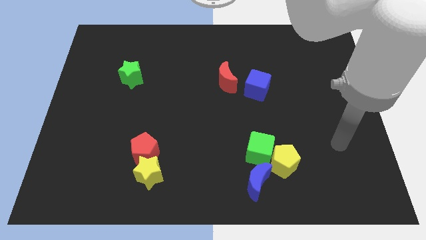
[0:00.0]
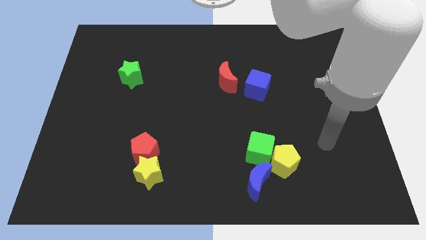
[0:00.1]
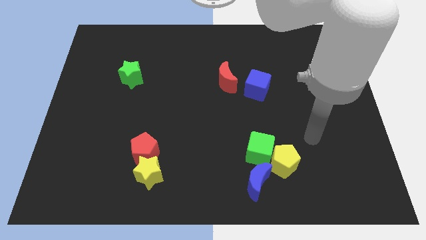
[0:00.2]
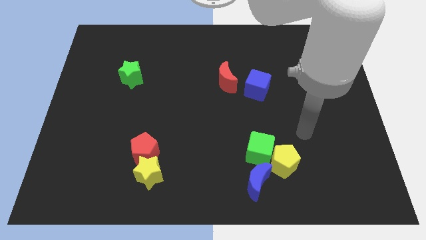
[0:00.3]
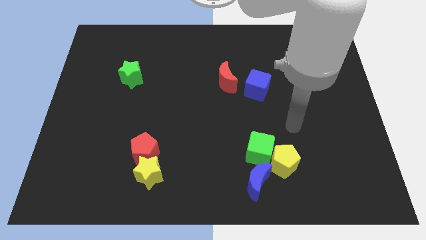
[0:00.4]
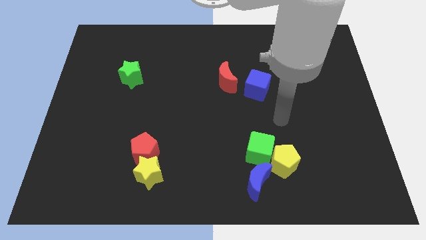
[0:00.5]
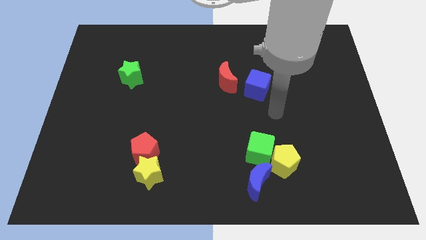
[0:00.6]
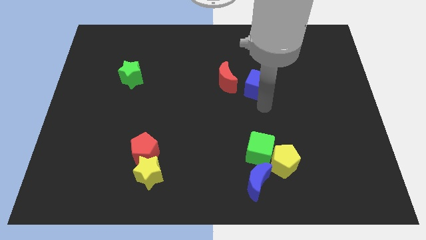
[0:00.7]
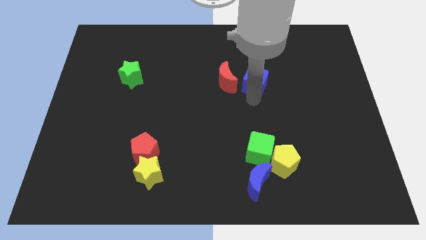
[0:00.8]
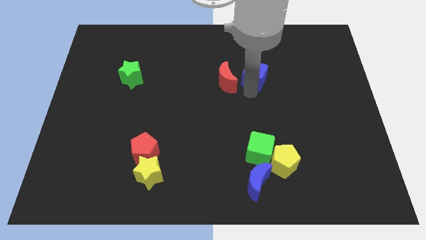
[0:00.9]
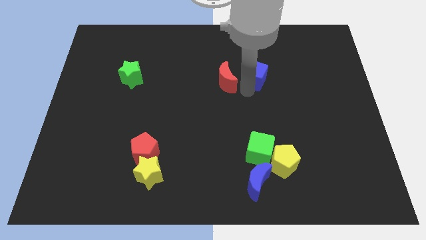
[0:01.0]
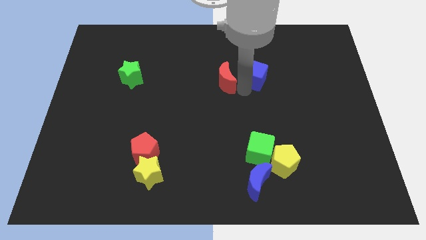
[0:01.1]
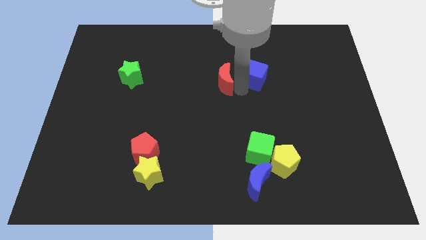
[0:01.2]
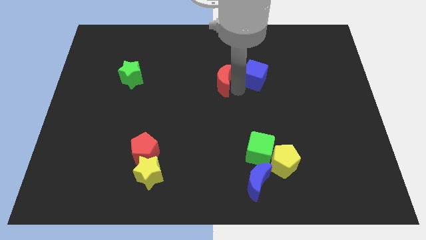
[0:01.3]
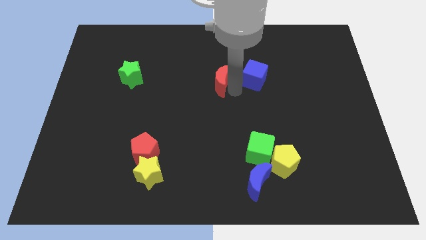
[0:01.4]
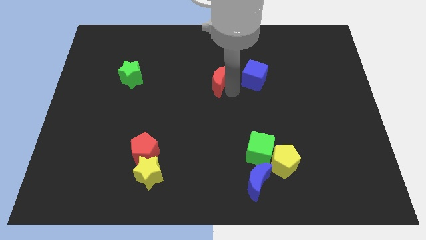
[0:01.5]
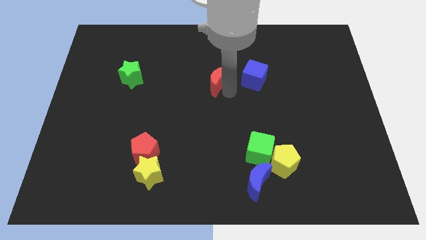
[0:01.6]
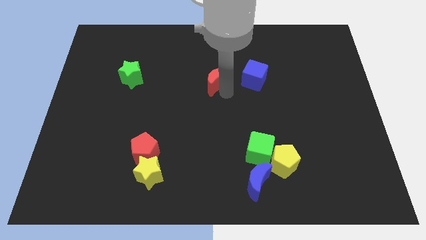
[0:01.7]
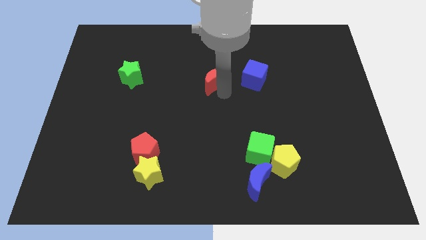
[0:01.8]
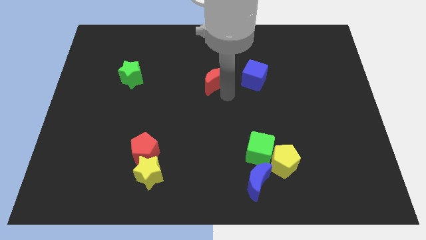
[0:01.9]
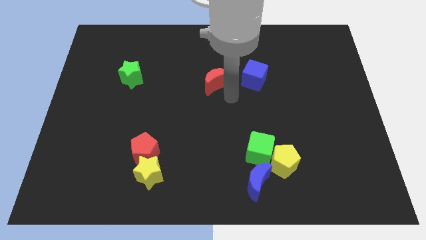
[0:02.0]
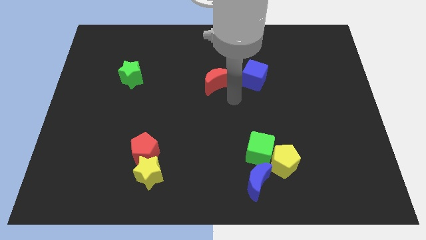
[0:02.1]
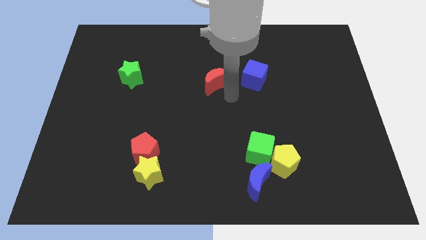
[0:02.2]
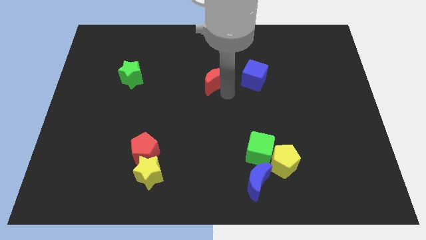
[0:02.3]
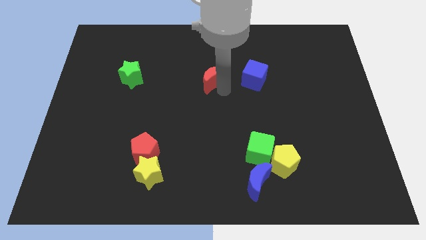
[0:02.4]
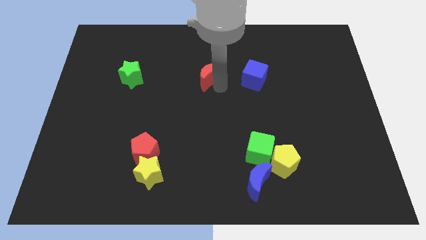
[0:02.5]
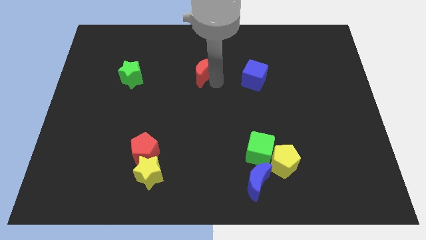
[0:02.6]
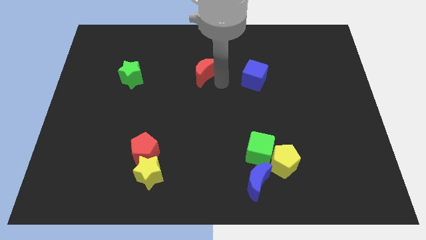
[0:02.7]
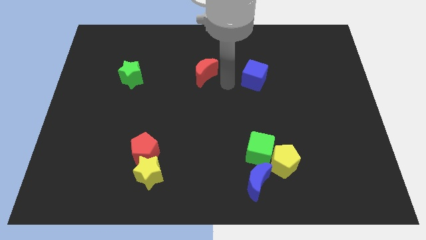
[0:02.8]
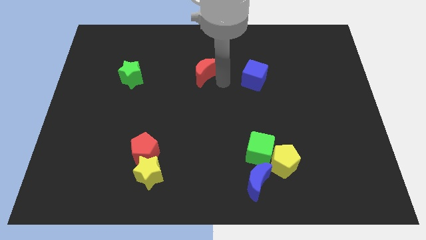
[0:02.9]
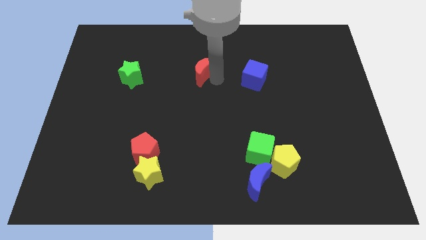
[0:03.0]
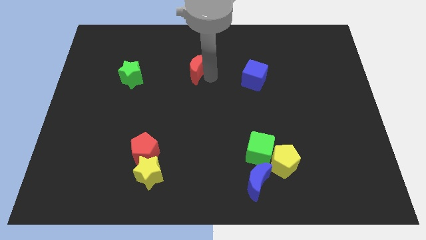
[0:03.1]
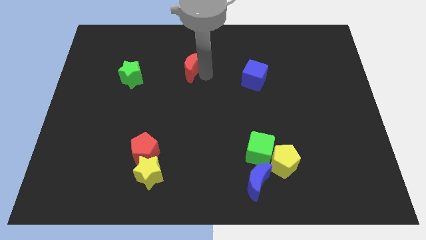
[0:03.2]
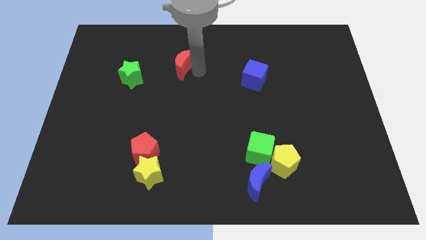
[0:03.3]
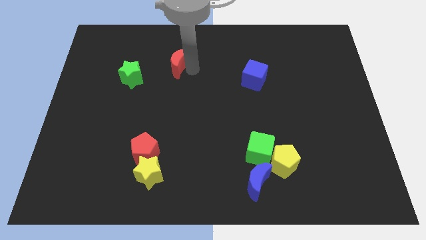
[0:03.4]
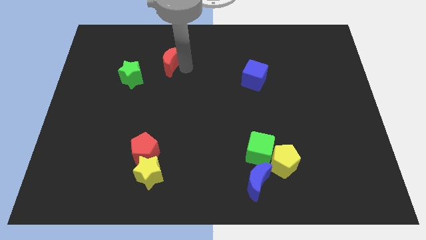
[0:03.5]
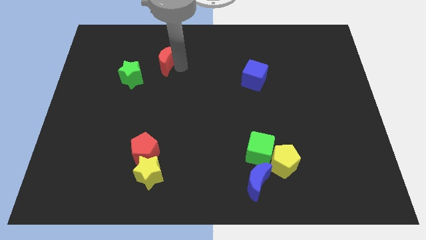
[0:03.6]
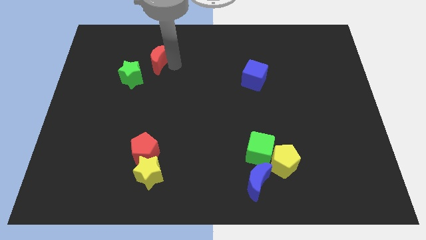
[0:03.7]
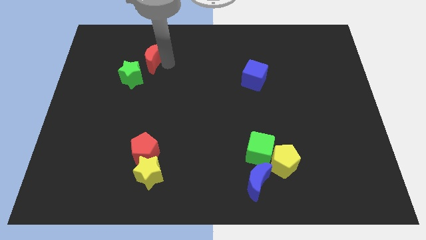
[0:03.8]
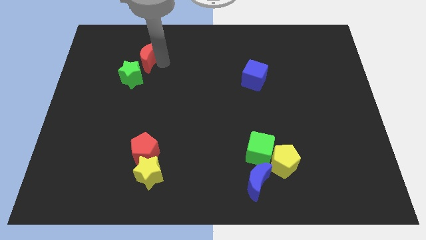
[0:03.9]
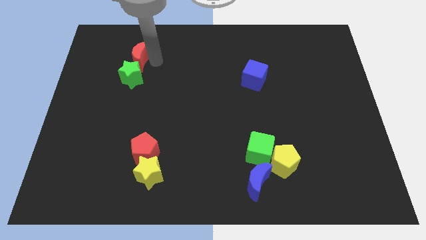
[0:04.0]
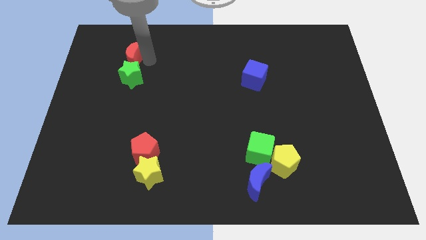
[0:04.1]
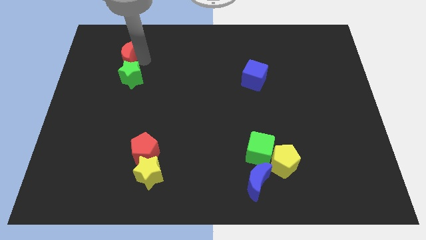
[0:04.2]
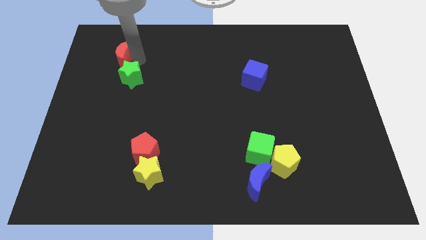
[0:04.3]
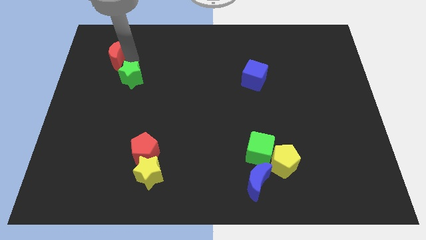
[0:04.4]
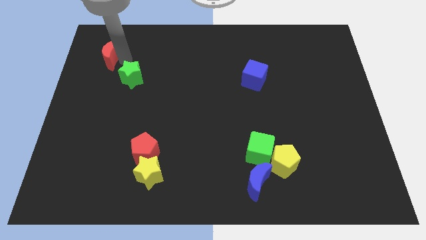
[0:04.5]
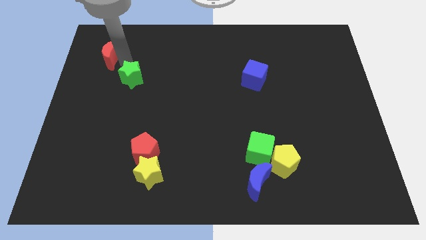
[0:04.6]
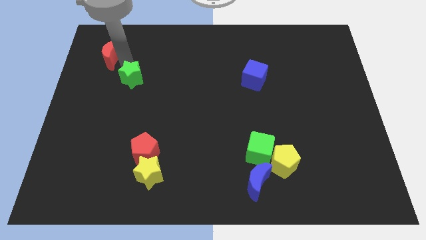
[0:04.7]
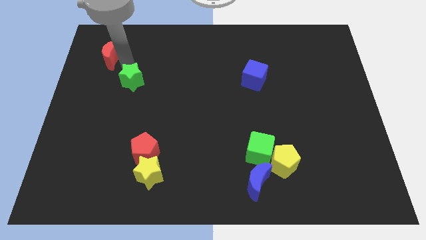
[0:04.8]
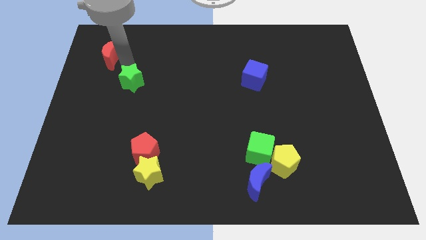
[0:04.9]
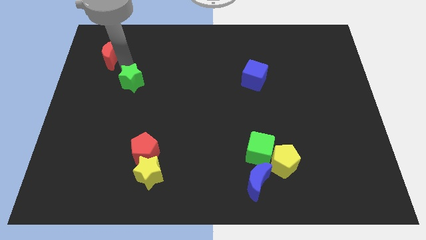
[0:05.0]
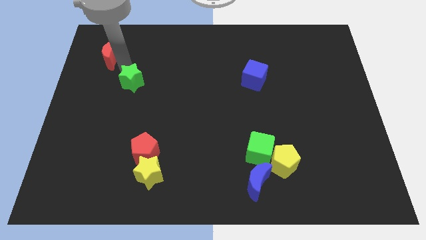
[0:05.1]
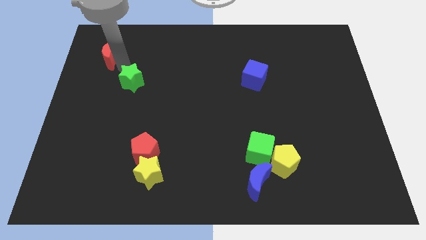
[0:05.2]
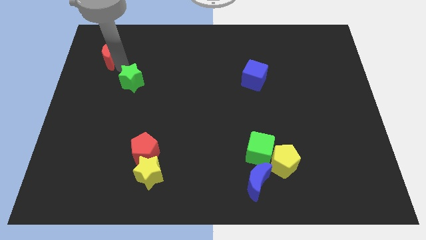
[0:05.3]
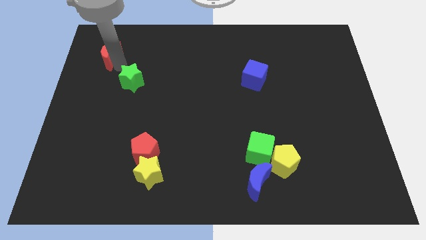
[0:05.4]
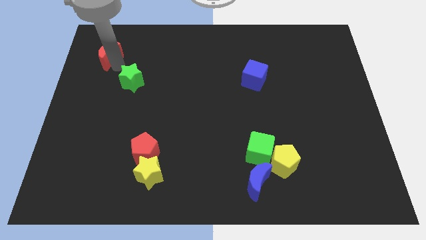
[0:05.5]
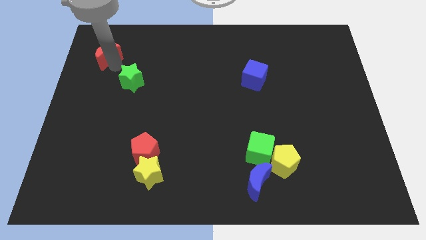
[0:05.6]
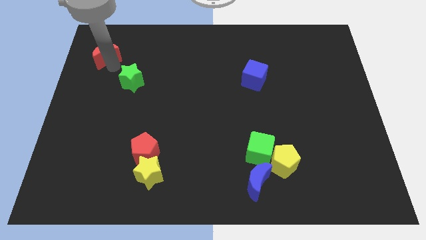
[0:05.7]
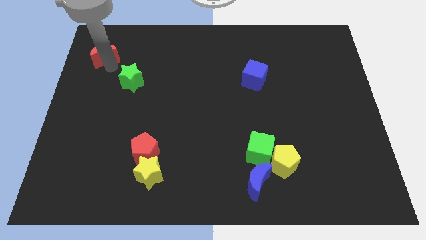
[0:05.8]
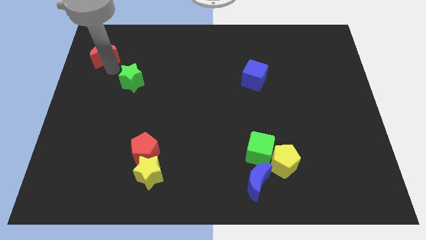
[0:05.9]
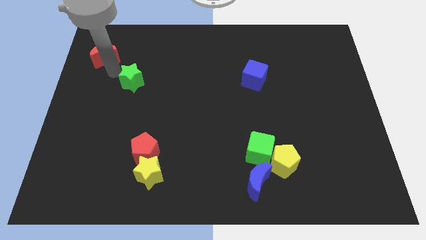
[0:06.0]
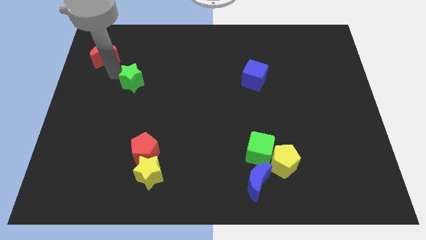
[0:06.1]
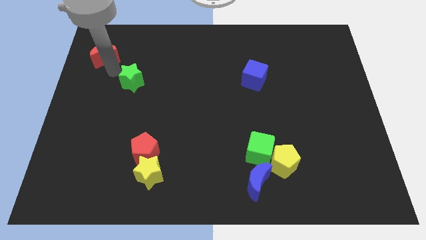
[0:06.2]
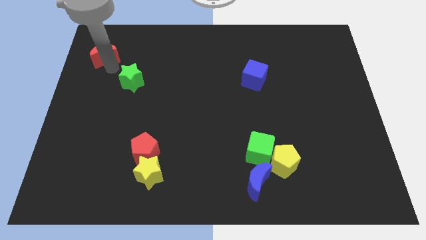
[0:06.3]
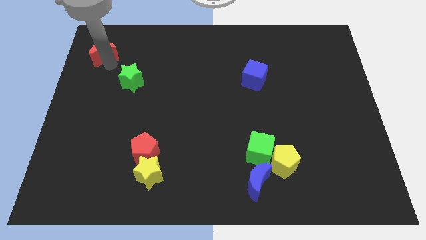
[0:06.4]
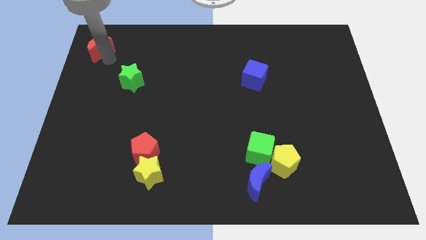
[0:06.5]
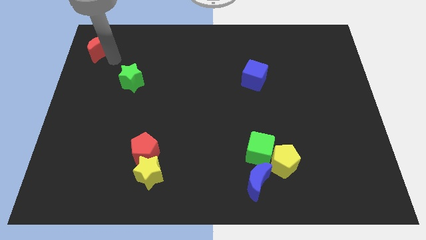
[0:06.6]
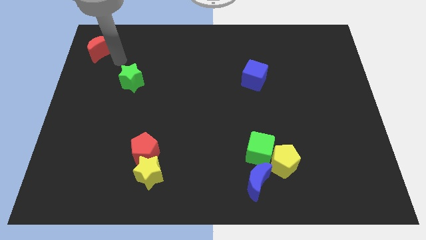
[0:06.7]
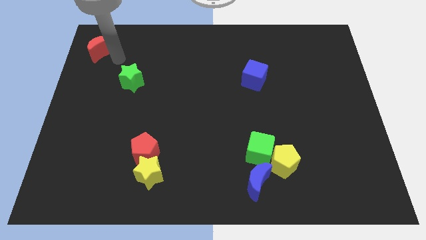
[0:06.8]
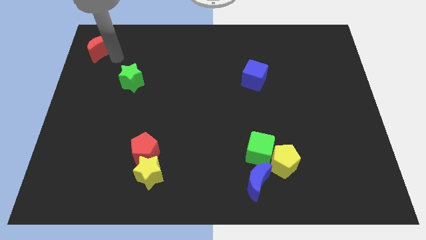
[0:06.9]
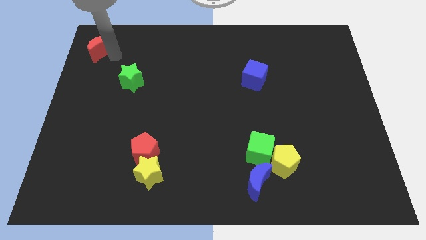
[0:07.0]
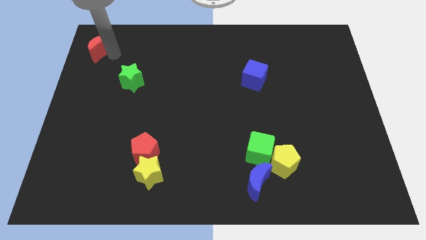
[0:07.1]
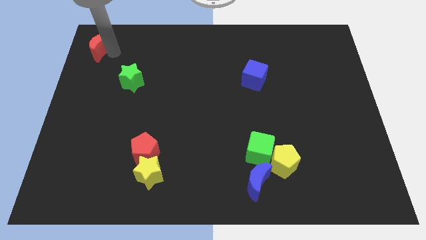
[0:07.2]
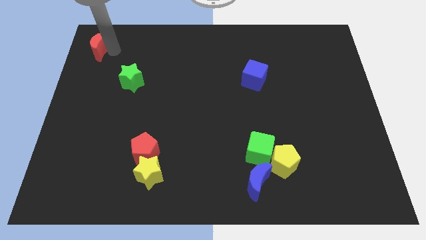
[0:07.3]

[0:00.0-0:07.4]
slide the red moon to the top left
